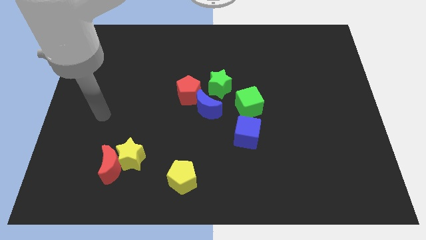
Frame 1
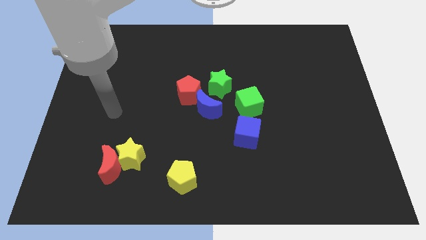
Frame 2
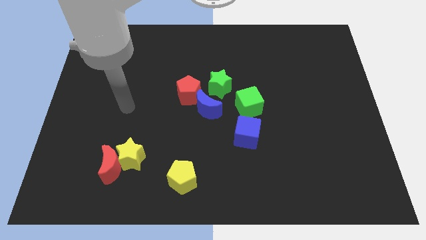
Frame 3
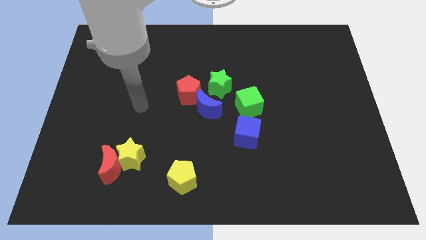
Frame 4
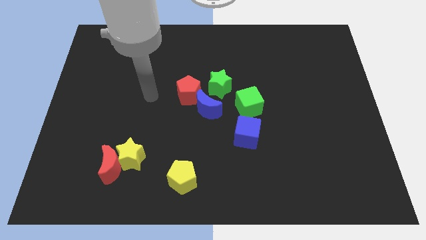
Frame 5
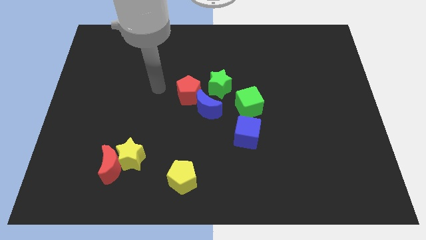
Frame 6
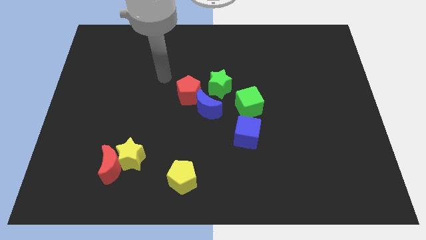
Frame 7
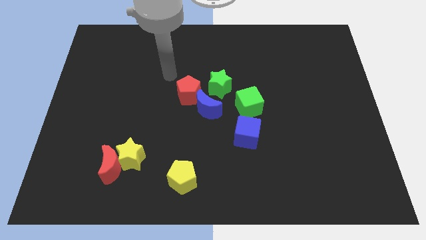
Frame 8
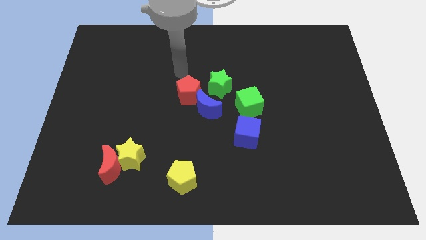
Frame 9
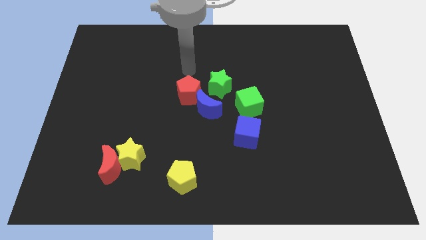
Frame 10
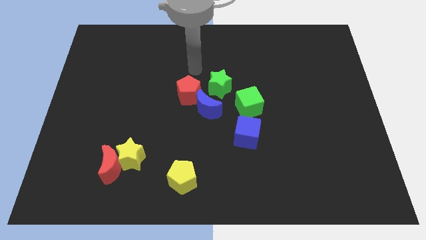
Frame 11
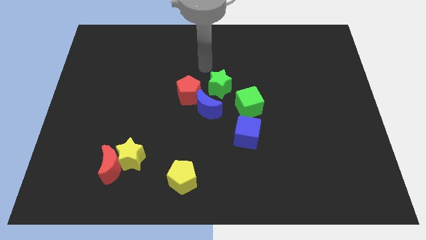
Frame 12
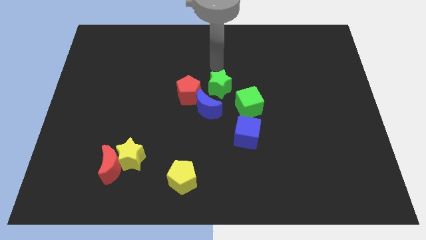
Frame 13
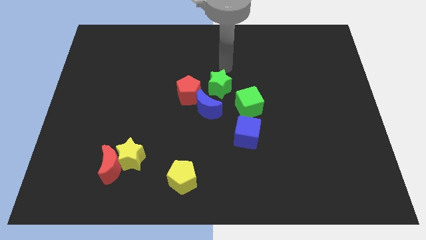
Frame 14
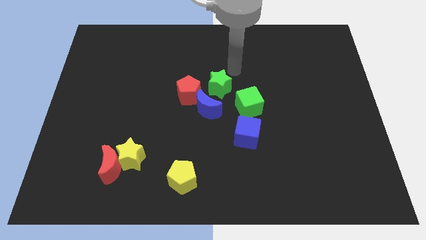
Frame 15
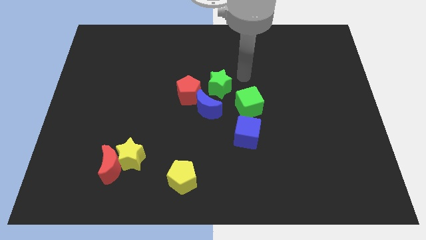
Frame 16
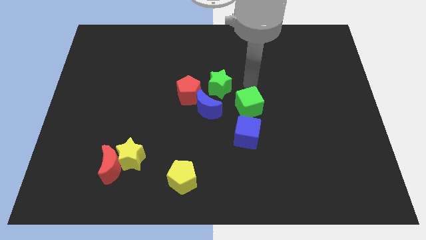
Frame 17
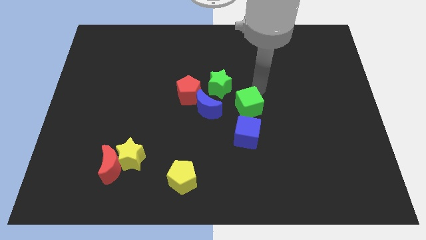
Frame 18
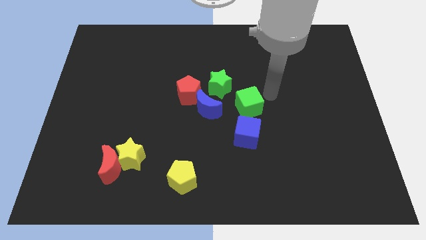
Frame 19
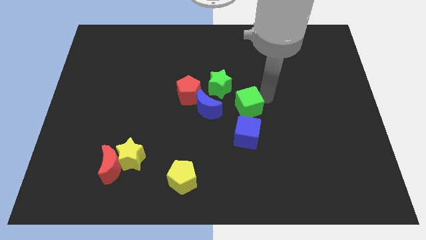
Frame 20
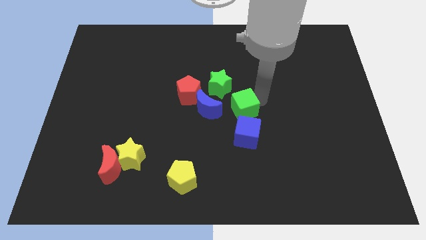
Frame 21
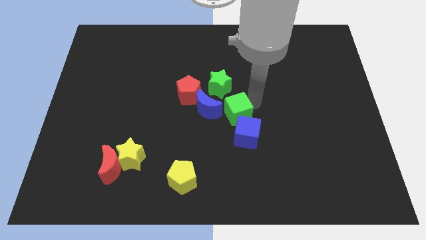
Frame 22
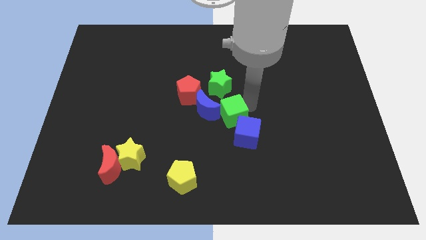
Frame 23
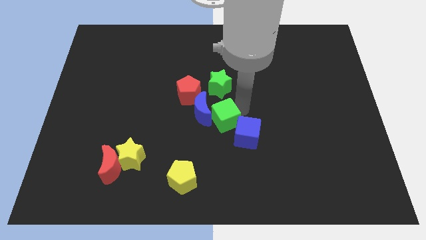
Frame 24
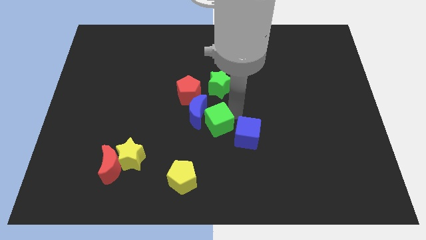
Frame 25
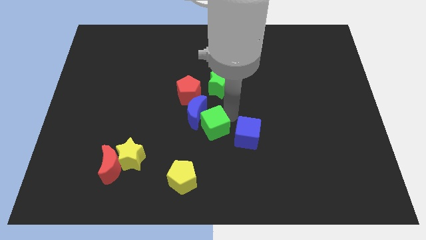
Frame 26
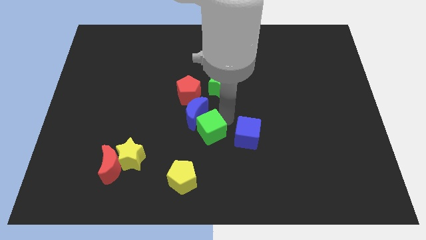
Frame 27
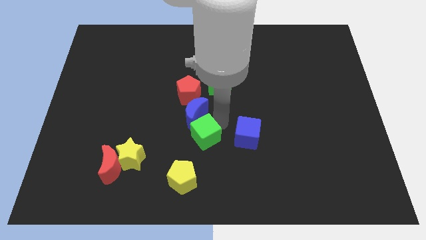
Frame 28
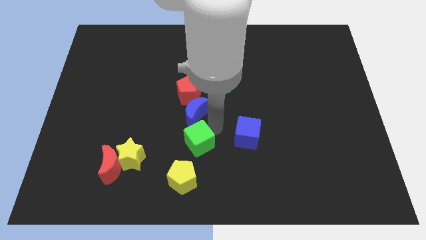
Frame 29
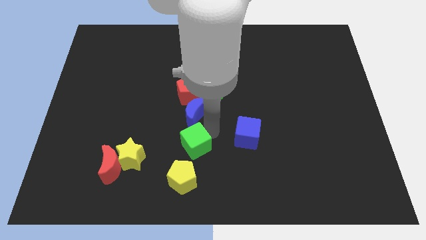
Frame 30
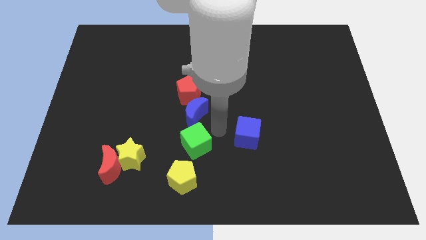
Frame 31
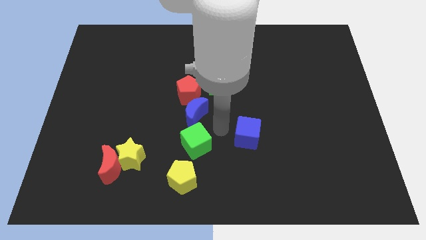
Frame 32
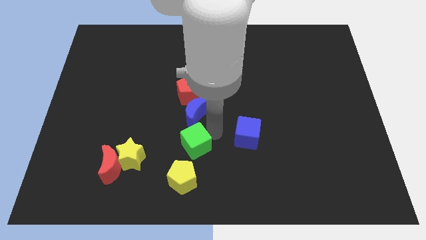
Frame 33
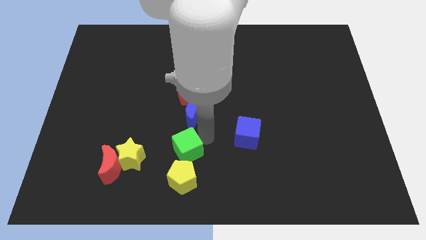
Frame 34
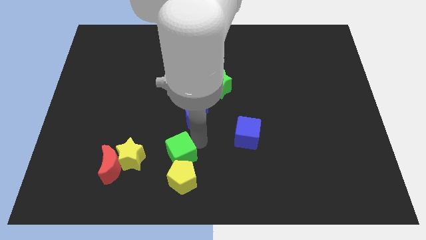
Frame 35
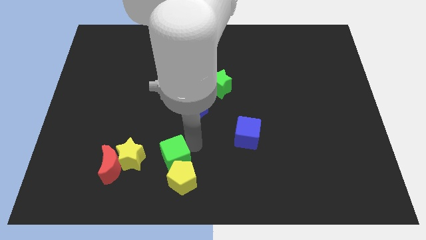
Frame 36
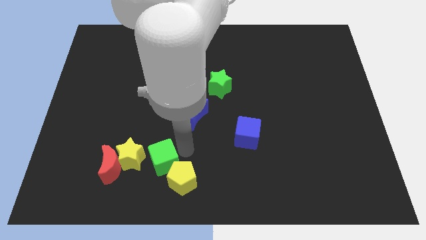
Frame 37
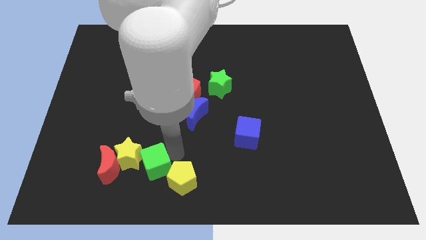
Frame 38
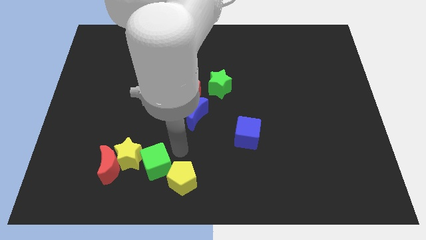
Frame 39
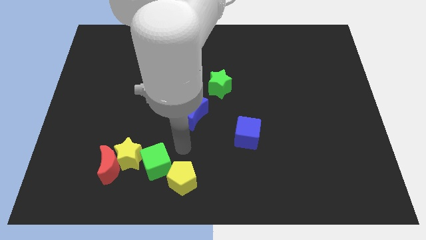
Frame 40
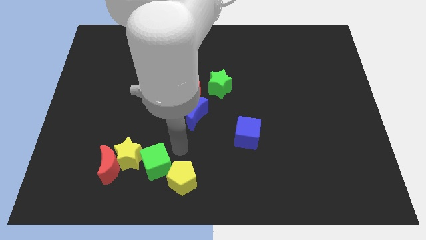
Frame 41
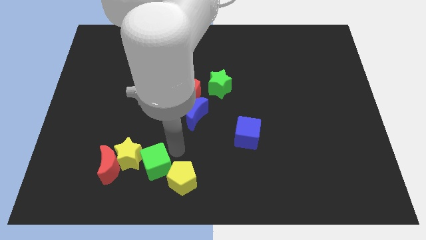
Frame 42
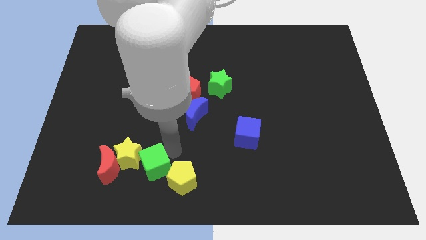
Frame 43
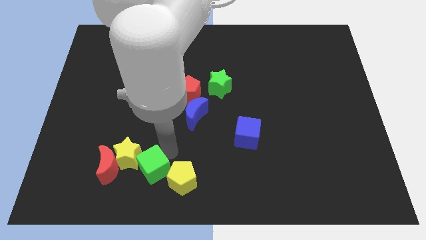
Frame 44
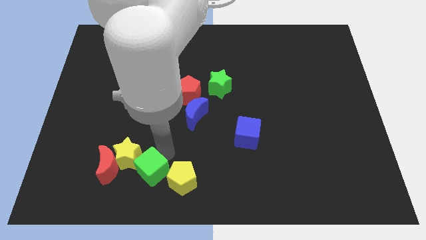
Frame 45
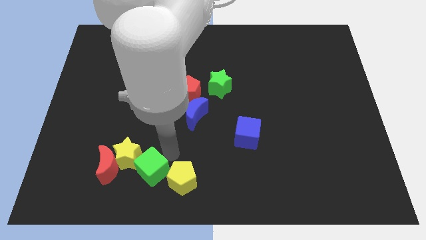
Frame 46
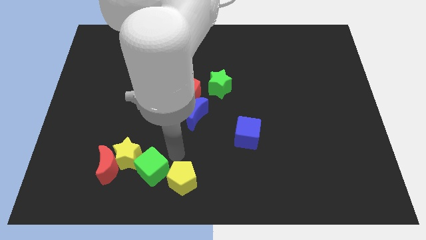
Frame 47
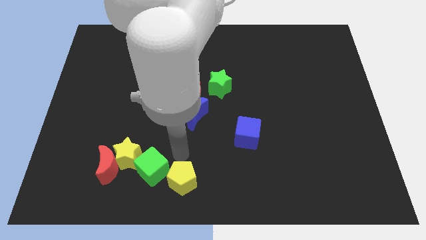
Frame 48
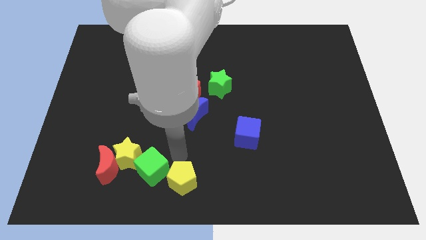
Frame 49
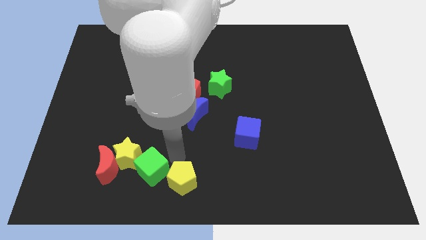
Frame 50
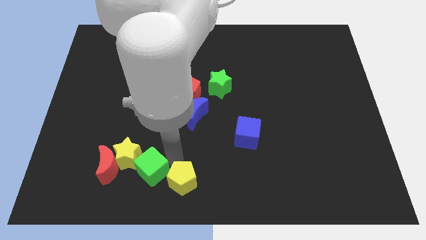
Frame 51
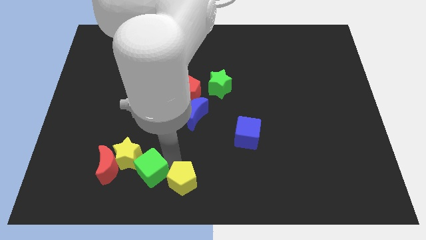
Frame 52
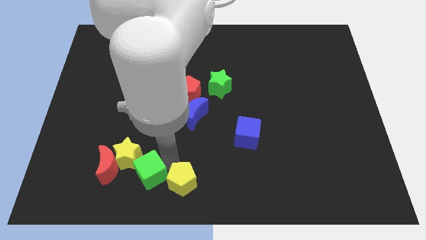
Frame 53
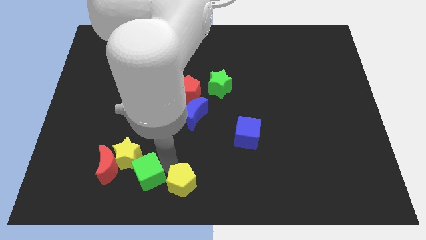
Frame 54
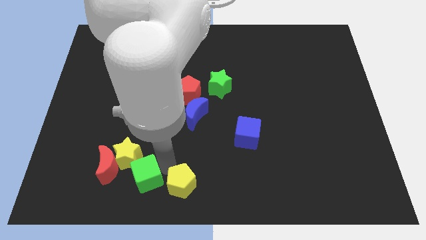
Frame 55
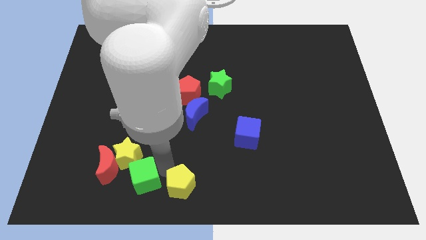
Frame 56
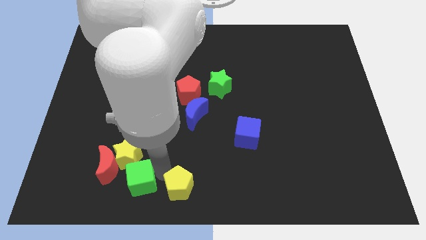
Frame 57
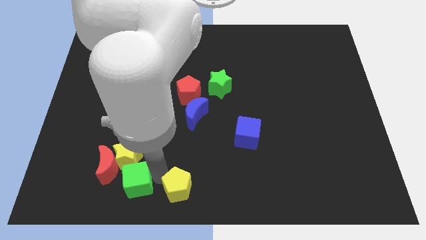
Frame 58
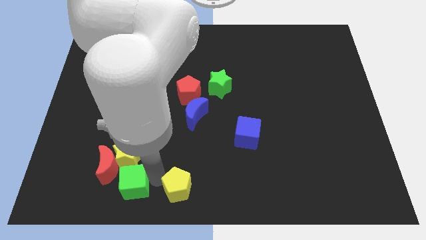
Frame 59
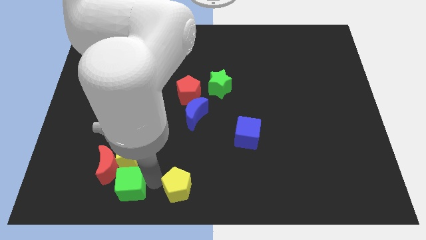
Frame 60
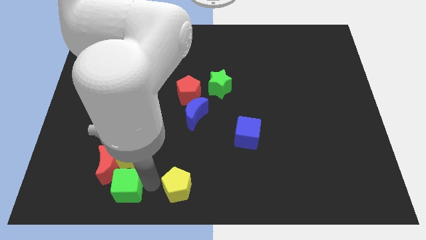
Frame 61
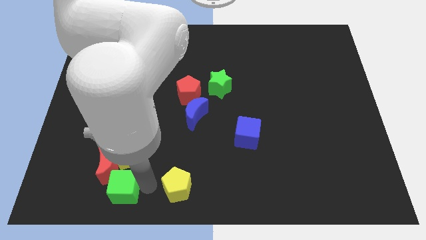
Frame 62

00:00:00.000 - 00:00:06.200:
move the green cube towards the red moon

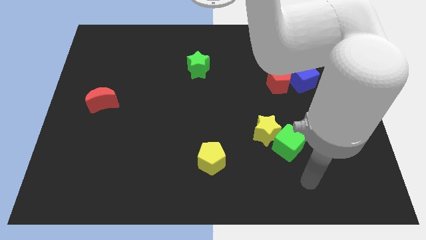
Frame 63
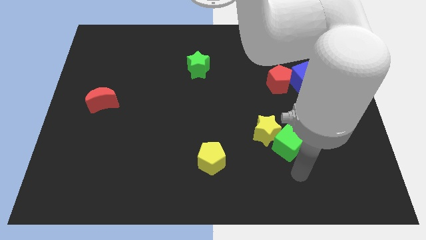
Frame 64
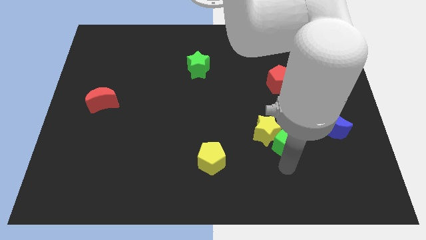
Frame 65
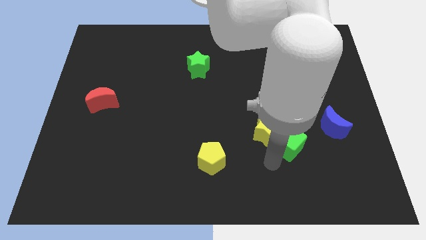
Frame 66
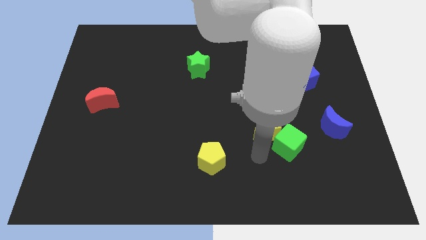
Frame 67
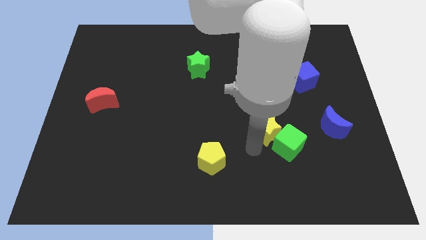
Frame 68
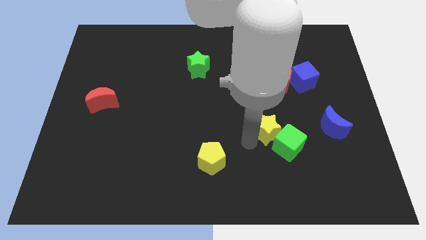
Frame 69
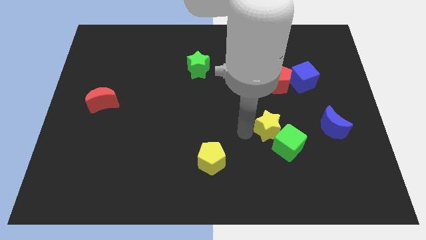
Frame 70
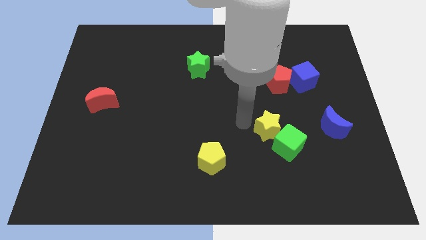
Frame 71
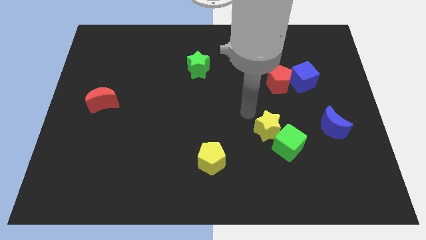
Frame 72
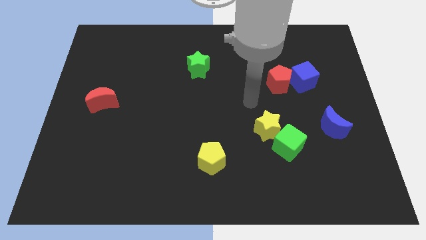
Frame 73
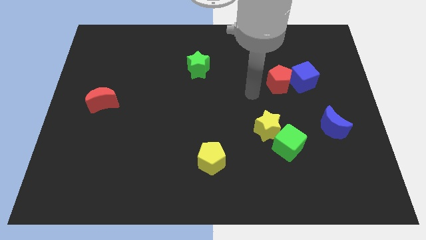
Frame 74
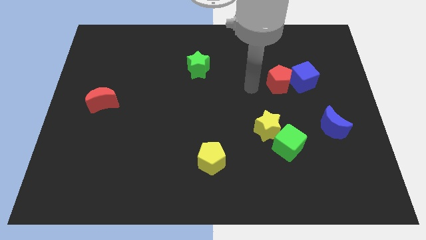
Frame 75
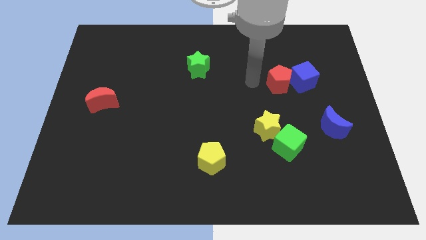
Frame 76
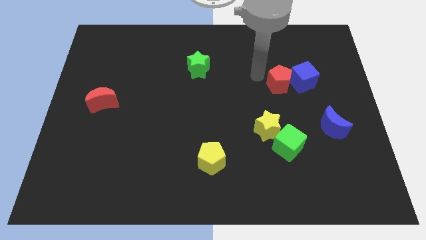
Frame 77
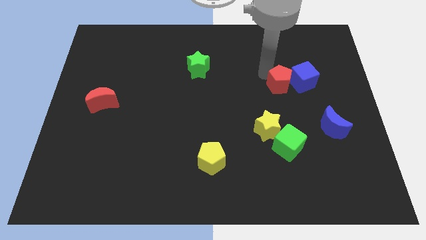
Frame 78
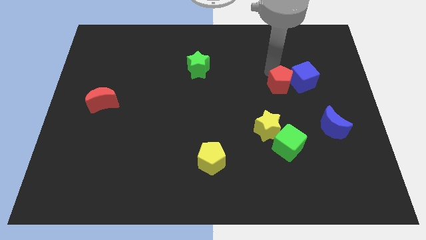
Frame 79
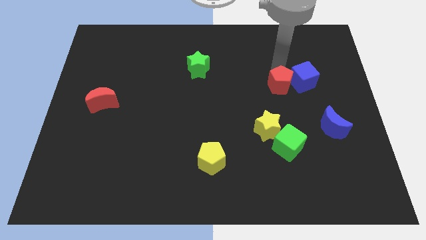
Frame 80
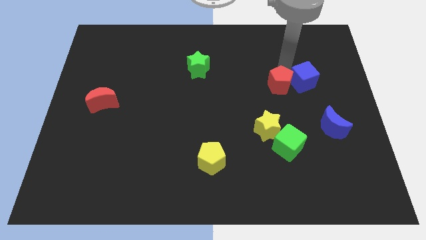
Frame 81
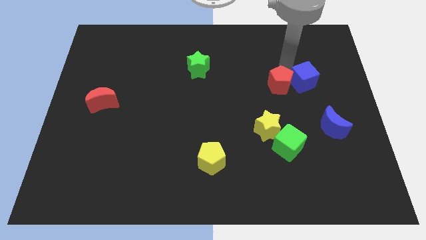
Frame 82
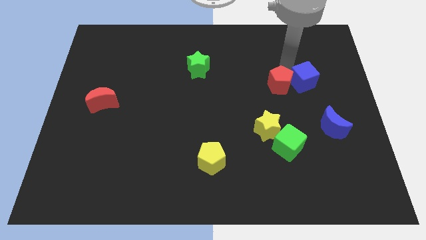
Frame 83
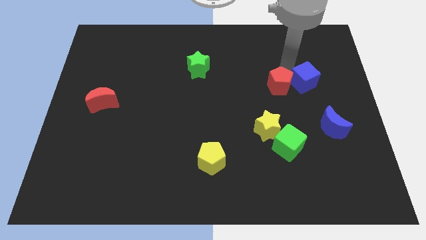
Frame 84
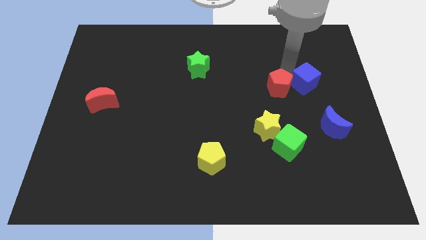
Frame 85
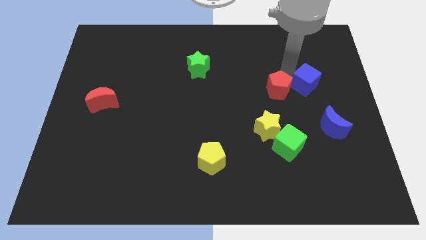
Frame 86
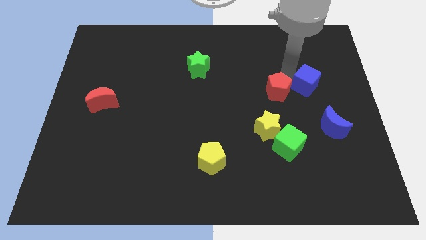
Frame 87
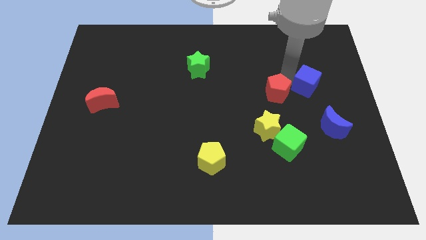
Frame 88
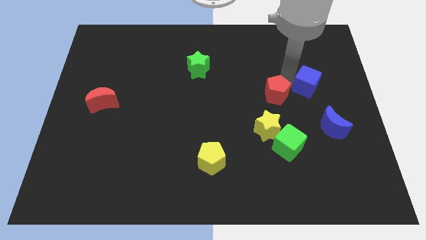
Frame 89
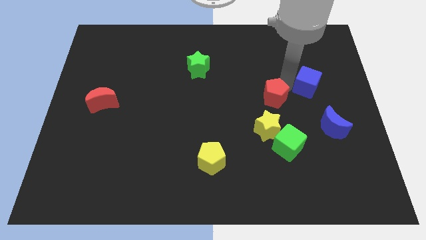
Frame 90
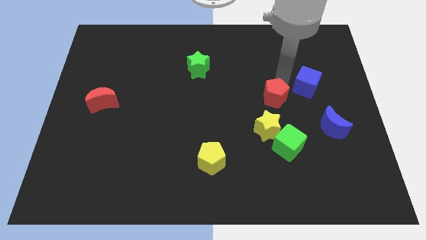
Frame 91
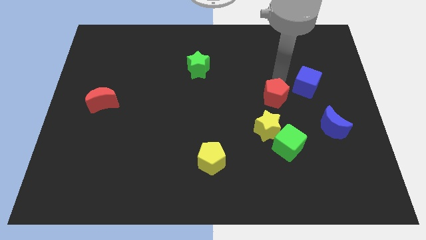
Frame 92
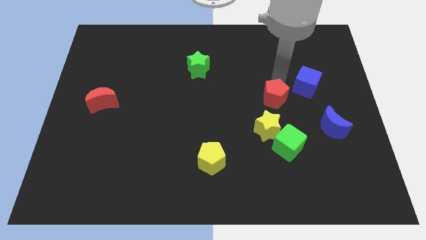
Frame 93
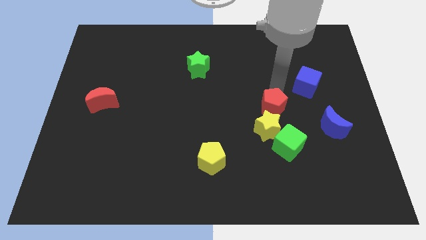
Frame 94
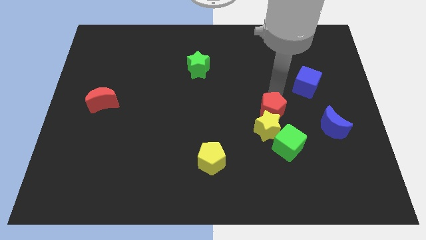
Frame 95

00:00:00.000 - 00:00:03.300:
put the red pentagon towards the yellow star
